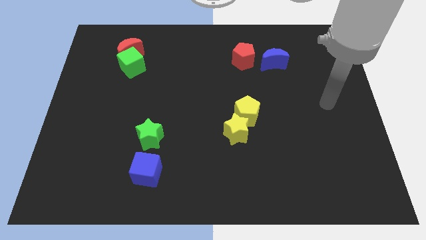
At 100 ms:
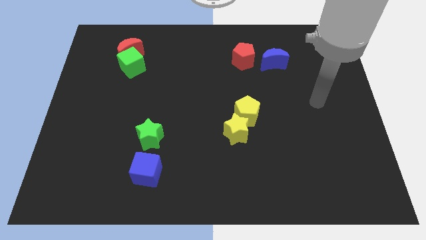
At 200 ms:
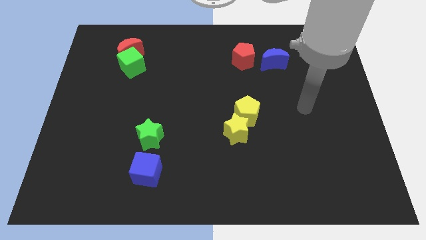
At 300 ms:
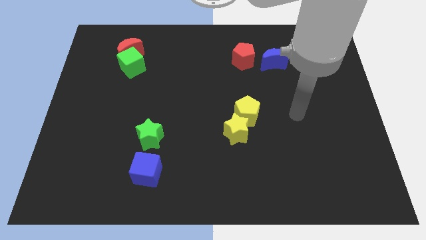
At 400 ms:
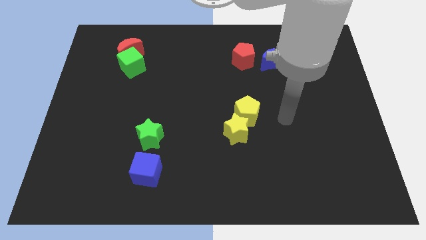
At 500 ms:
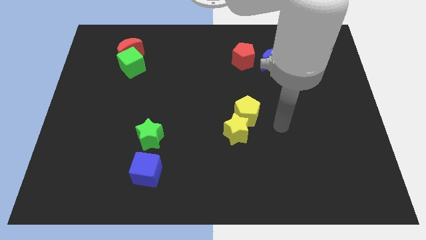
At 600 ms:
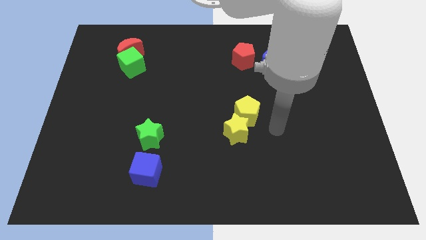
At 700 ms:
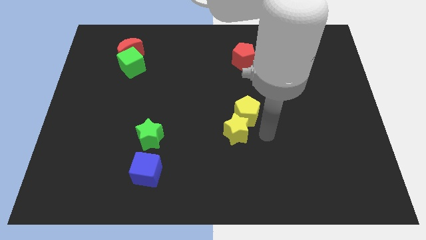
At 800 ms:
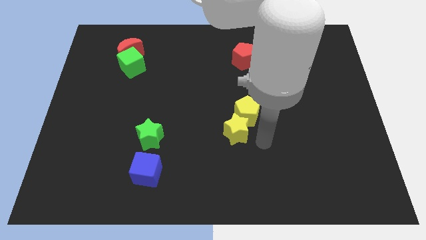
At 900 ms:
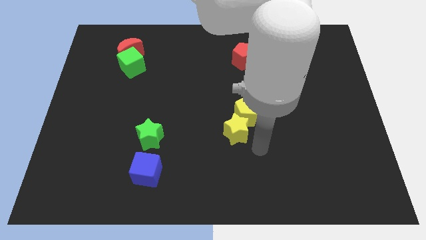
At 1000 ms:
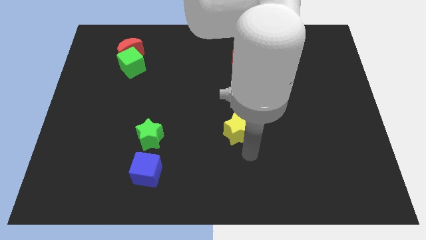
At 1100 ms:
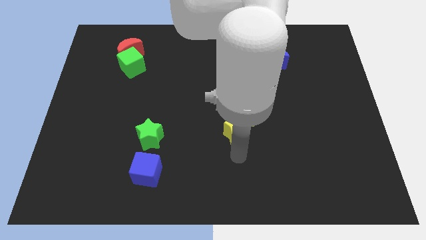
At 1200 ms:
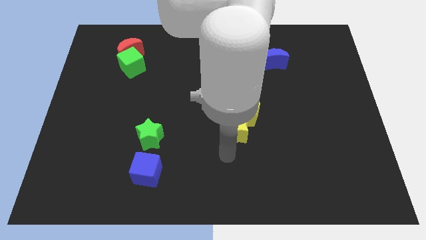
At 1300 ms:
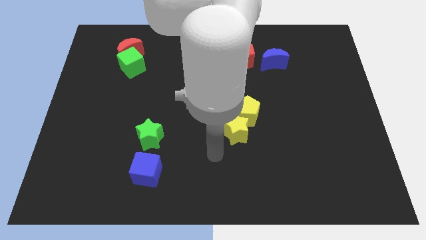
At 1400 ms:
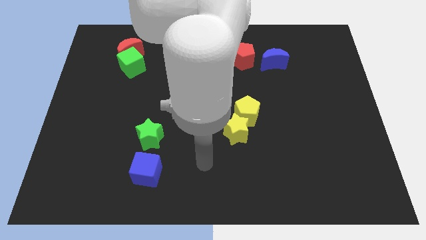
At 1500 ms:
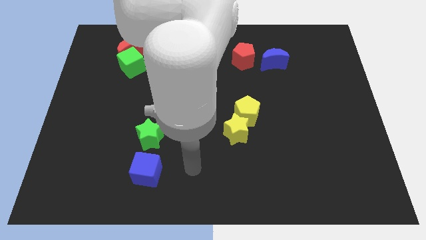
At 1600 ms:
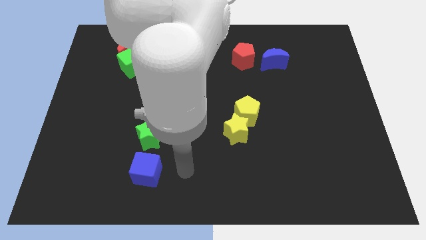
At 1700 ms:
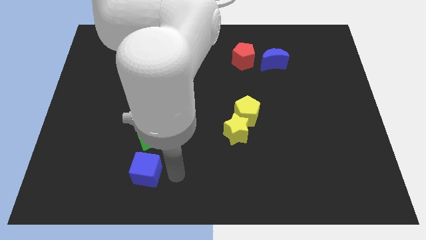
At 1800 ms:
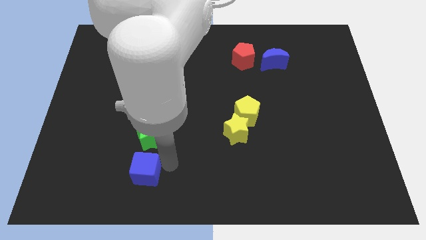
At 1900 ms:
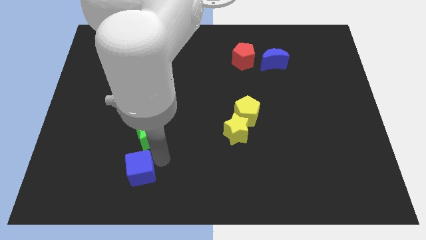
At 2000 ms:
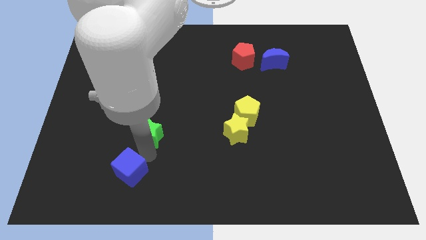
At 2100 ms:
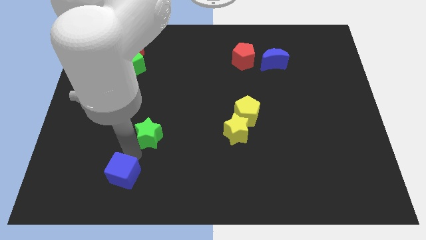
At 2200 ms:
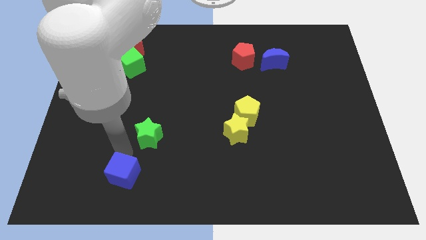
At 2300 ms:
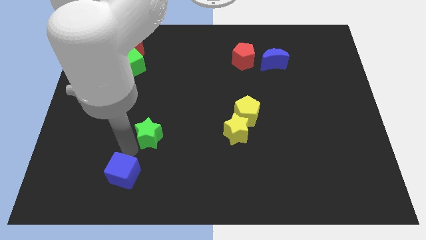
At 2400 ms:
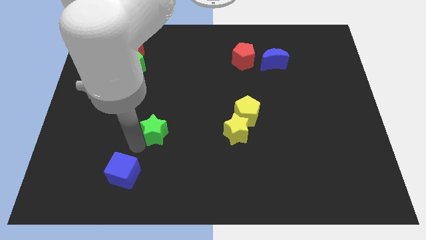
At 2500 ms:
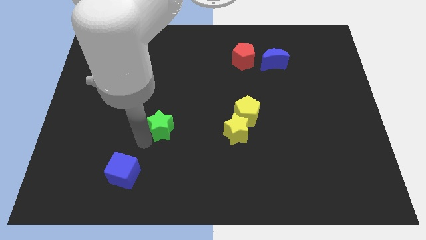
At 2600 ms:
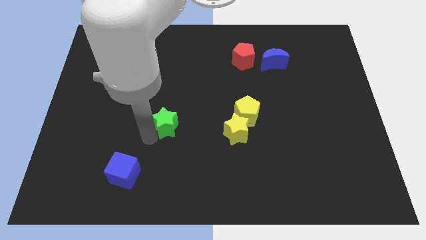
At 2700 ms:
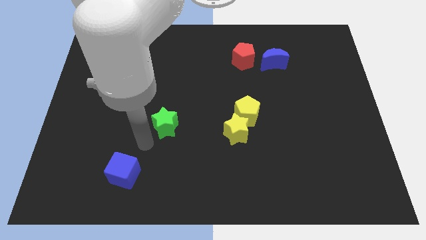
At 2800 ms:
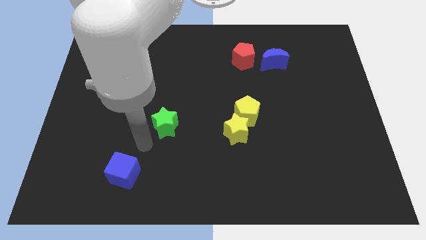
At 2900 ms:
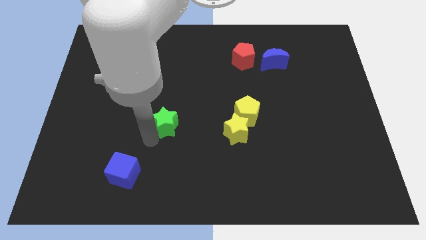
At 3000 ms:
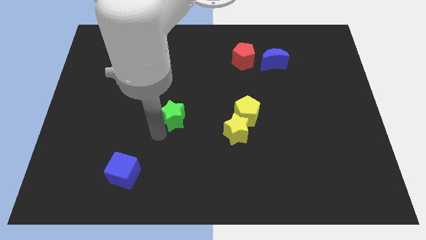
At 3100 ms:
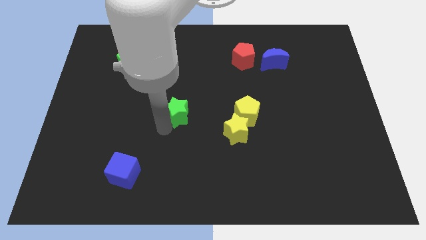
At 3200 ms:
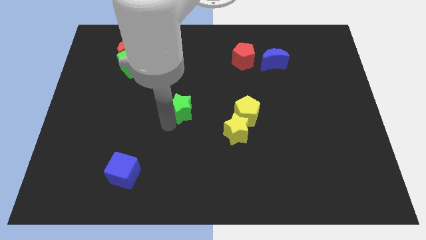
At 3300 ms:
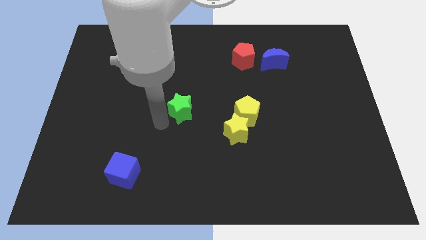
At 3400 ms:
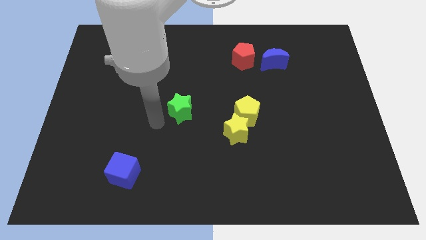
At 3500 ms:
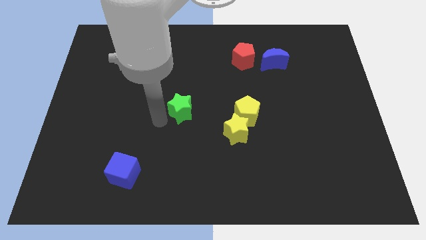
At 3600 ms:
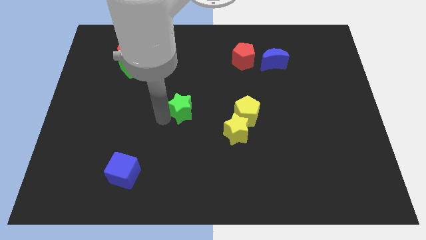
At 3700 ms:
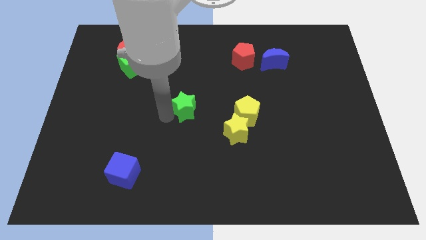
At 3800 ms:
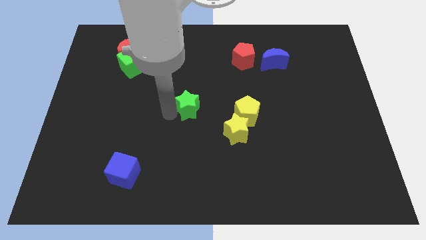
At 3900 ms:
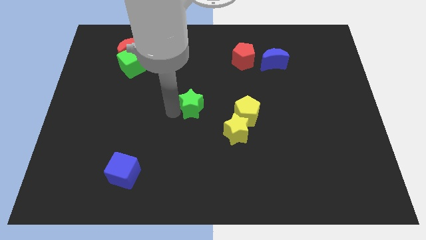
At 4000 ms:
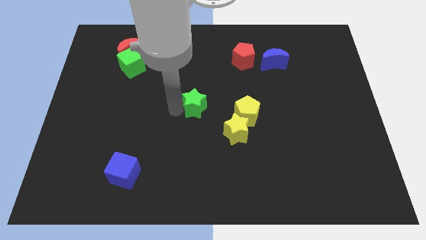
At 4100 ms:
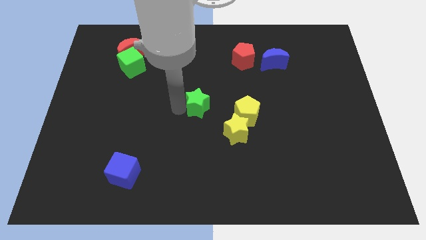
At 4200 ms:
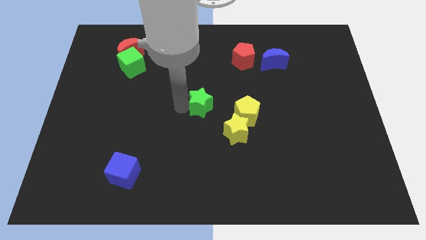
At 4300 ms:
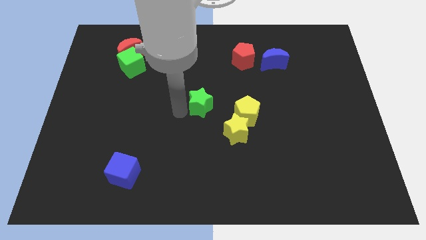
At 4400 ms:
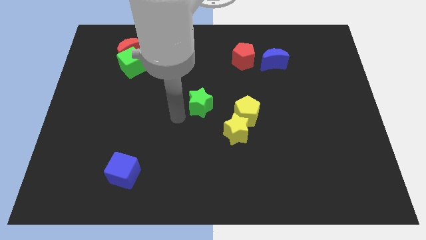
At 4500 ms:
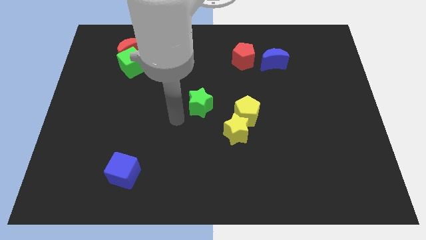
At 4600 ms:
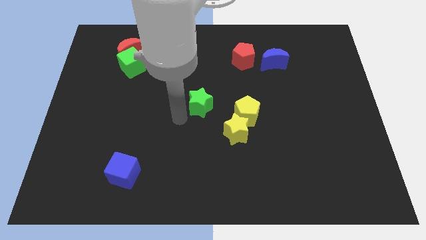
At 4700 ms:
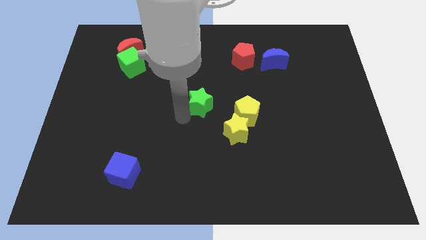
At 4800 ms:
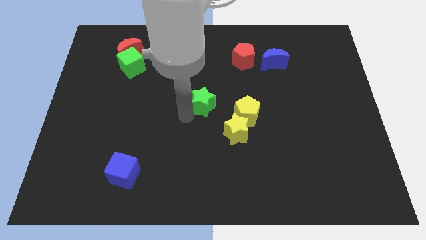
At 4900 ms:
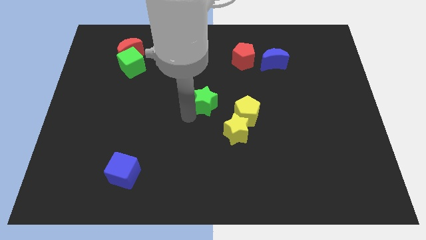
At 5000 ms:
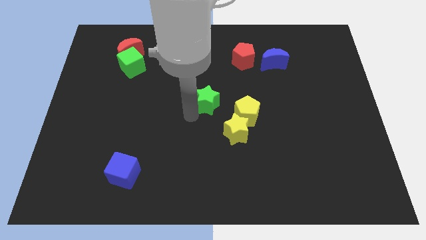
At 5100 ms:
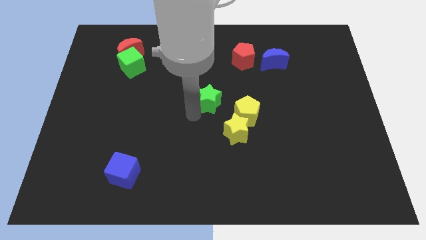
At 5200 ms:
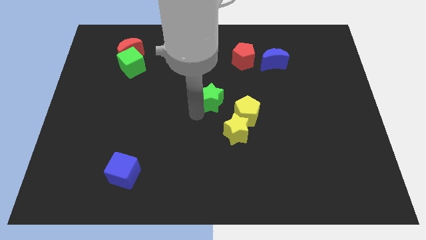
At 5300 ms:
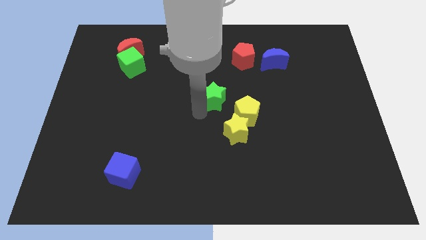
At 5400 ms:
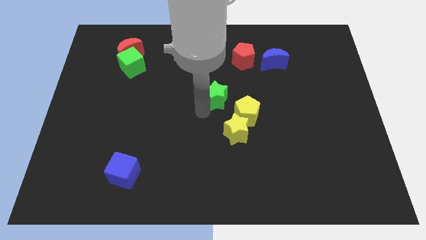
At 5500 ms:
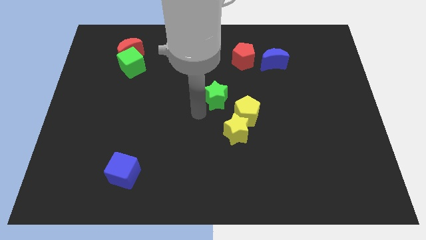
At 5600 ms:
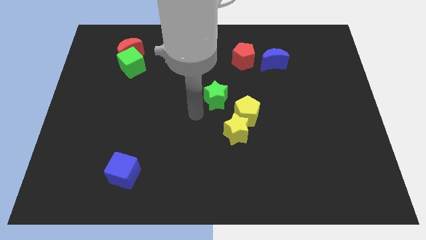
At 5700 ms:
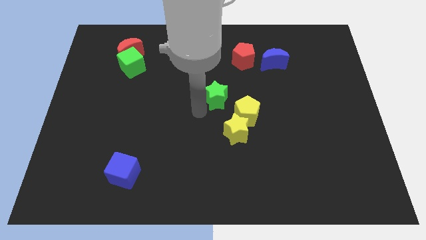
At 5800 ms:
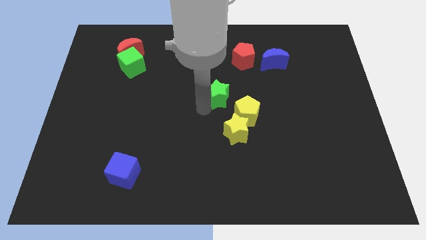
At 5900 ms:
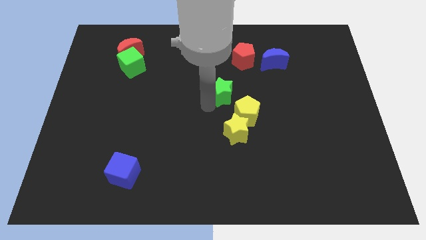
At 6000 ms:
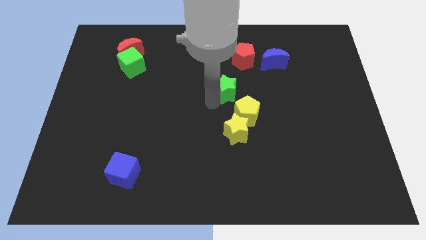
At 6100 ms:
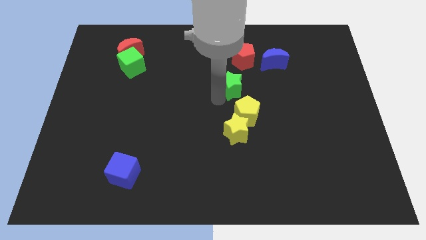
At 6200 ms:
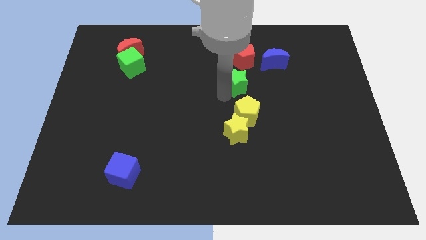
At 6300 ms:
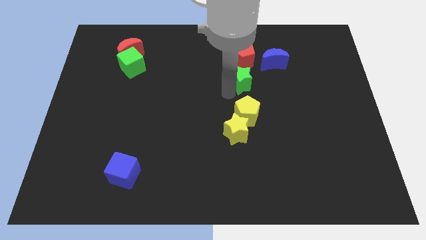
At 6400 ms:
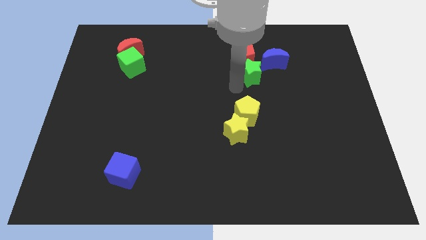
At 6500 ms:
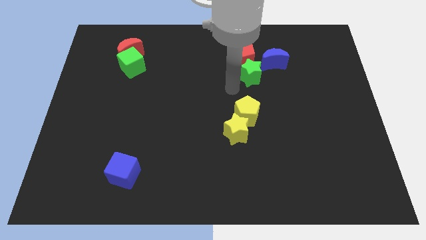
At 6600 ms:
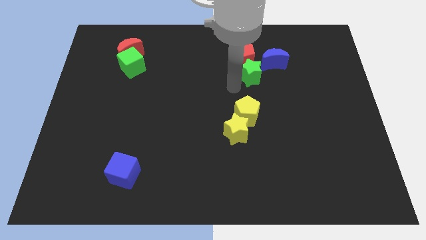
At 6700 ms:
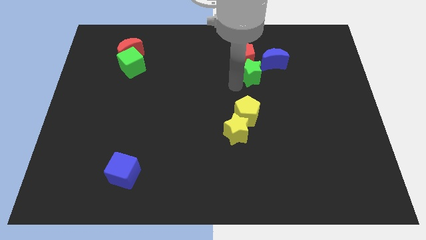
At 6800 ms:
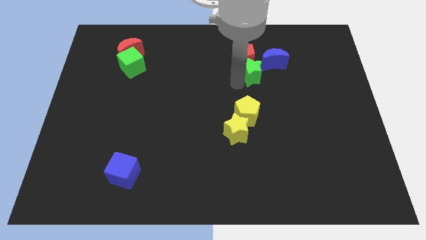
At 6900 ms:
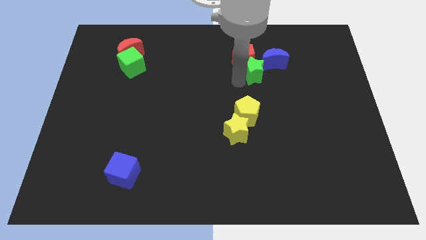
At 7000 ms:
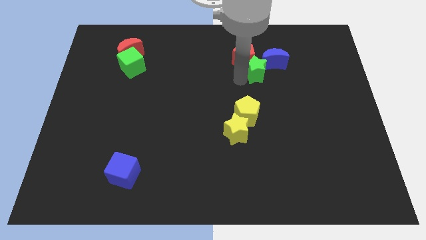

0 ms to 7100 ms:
put the green star to the blue moon

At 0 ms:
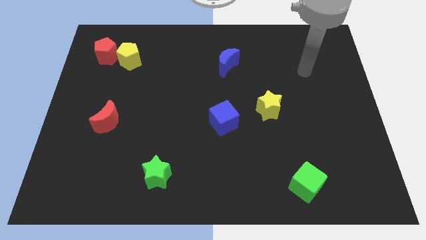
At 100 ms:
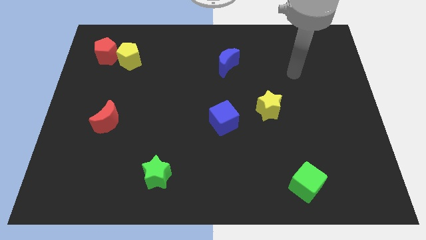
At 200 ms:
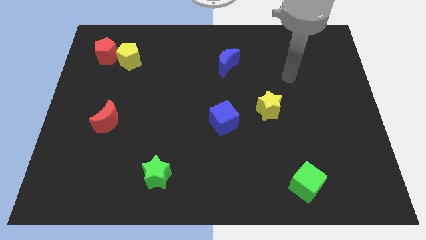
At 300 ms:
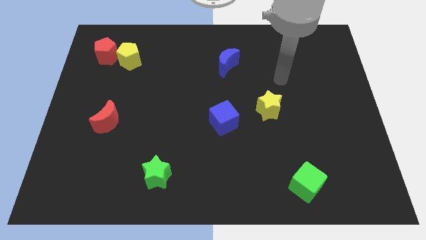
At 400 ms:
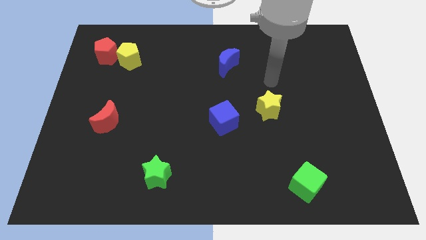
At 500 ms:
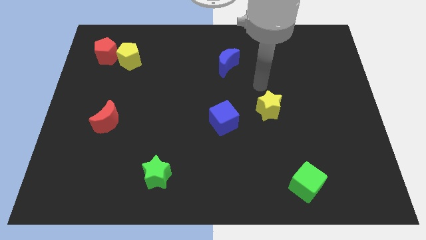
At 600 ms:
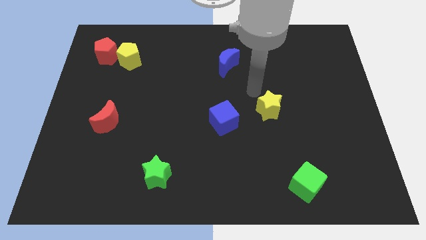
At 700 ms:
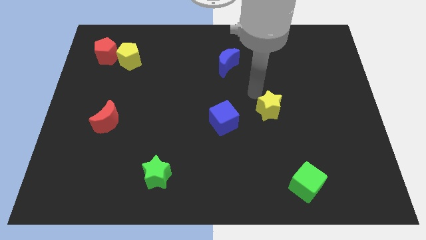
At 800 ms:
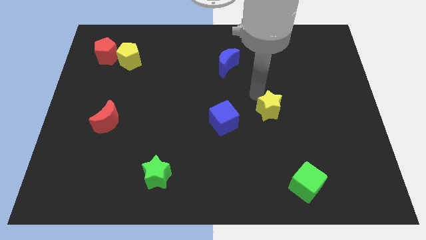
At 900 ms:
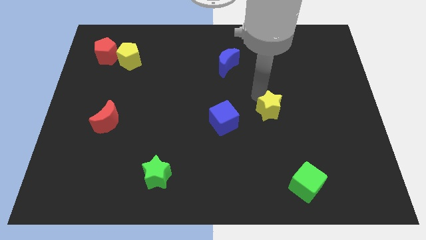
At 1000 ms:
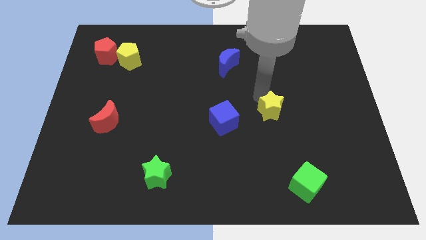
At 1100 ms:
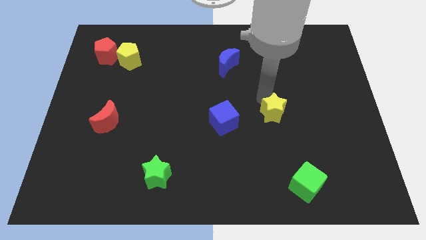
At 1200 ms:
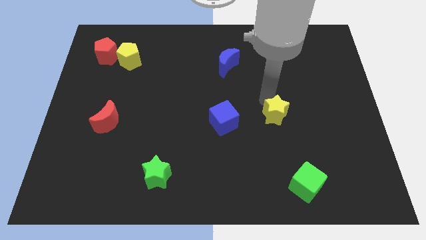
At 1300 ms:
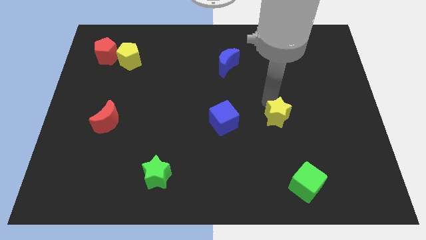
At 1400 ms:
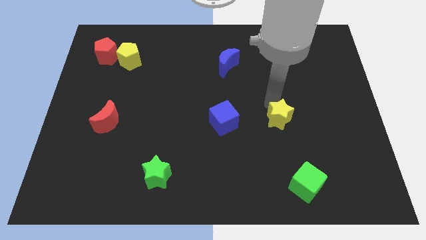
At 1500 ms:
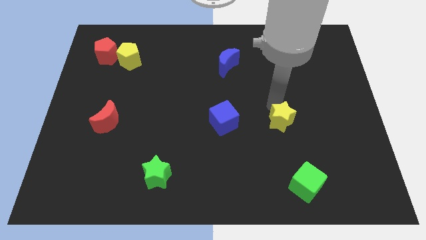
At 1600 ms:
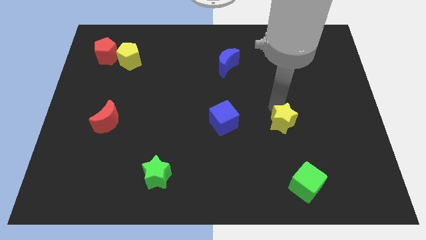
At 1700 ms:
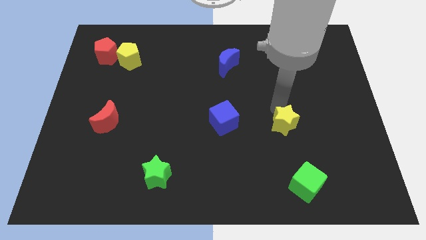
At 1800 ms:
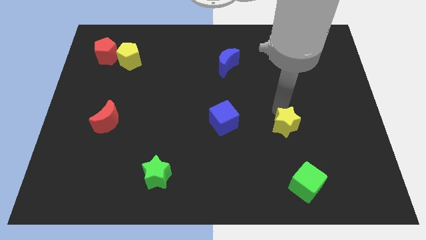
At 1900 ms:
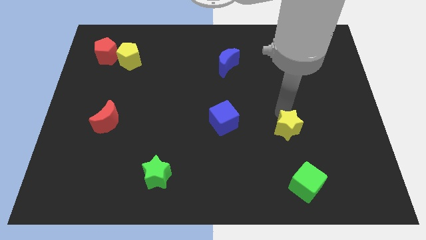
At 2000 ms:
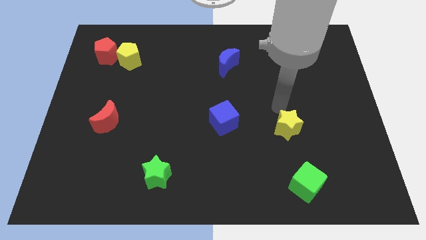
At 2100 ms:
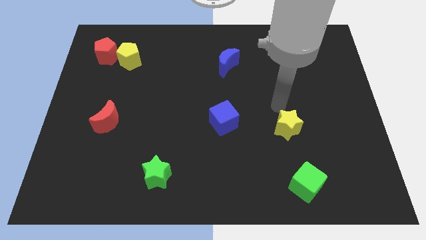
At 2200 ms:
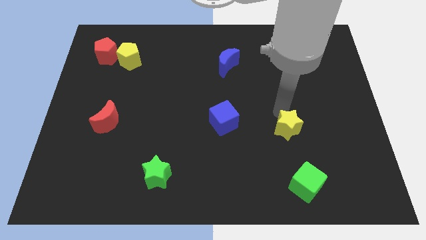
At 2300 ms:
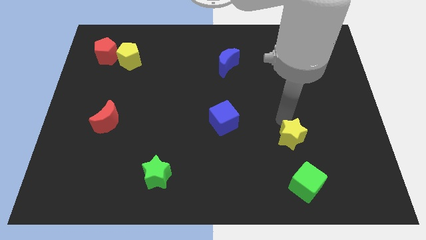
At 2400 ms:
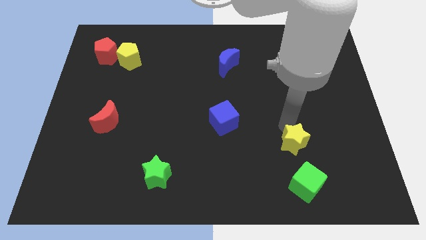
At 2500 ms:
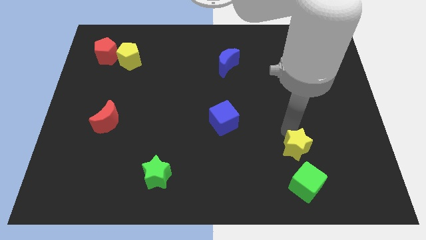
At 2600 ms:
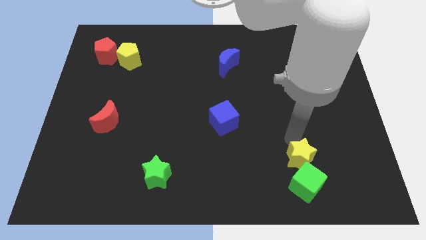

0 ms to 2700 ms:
push the yellow star next to the green cube
